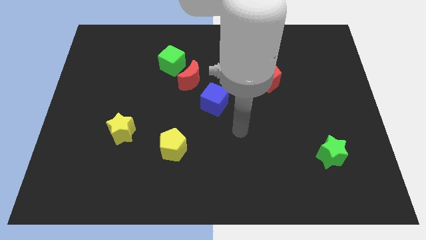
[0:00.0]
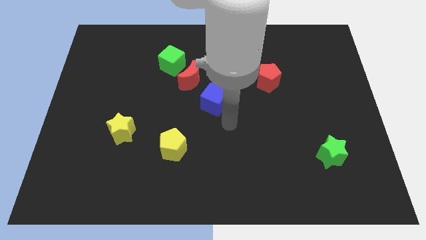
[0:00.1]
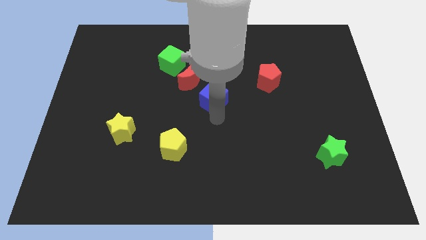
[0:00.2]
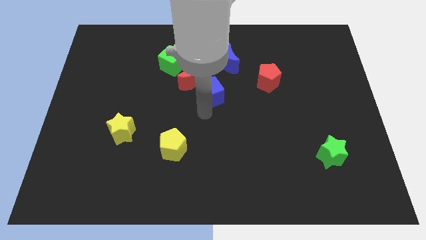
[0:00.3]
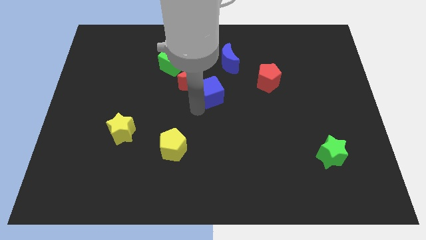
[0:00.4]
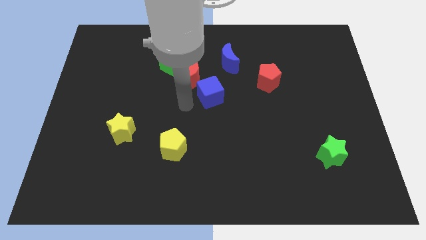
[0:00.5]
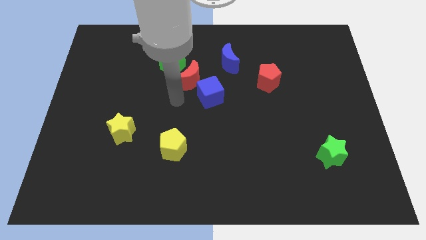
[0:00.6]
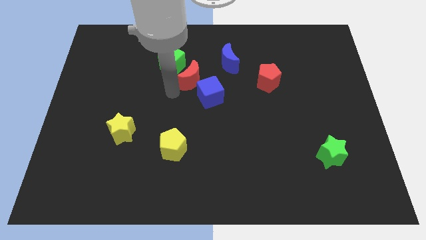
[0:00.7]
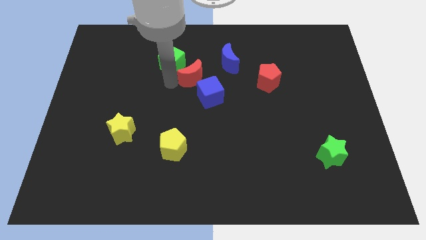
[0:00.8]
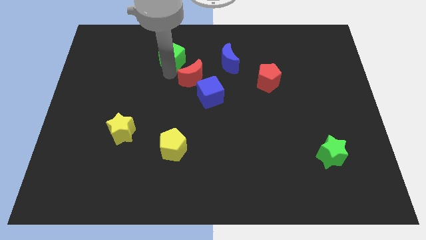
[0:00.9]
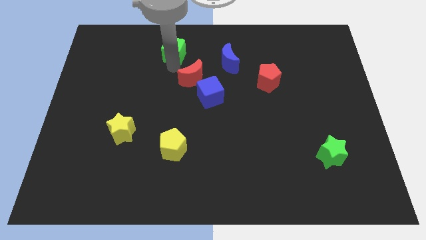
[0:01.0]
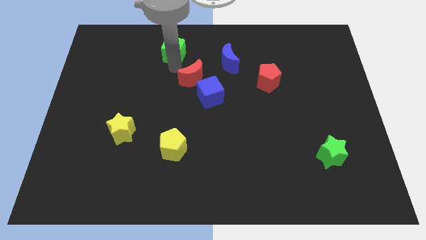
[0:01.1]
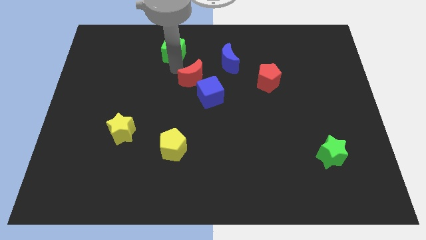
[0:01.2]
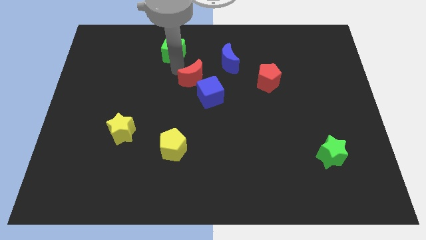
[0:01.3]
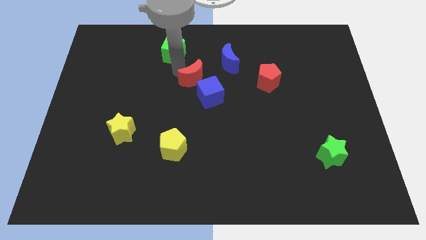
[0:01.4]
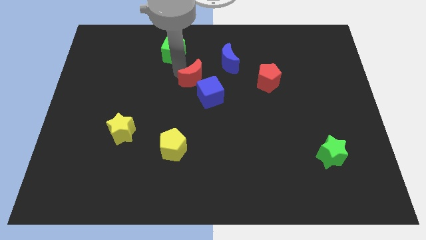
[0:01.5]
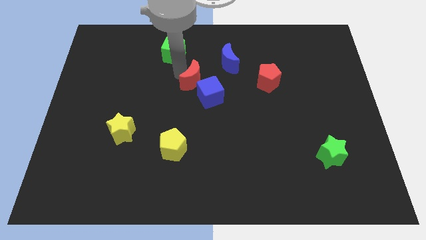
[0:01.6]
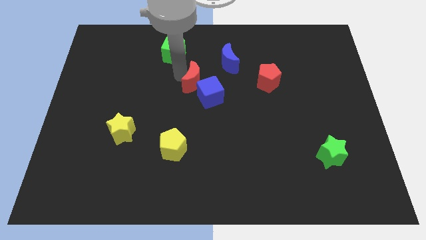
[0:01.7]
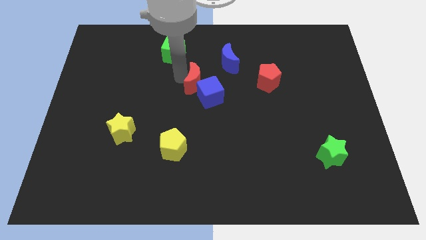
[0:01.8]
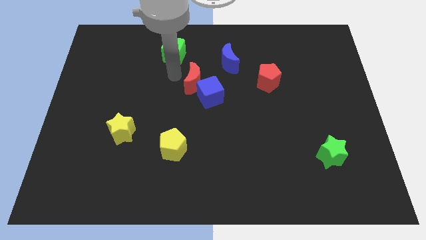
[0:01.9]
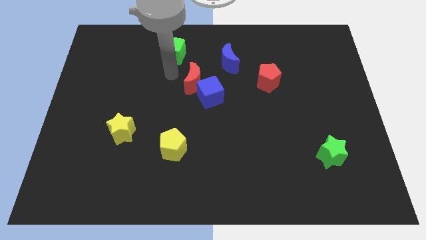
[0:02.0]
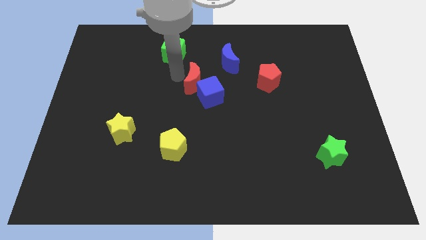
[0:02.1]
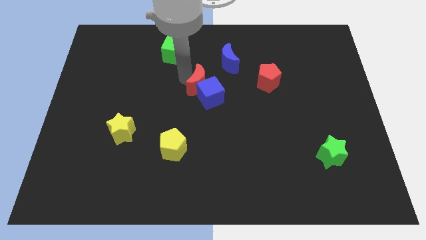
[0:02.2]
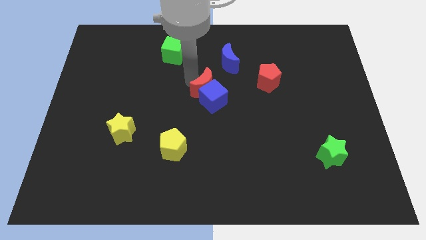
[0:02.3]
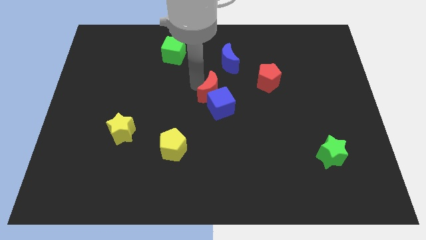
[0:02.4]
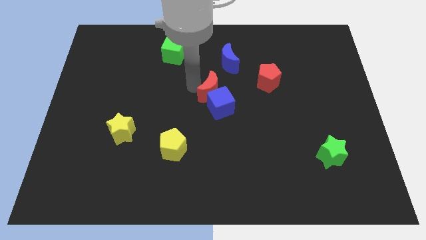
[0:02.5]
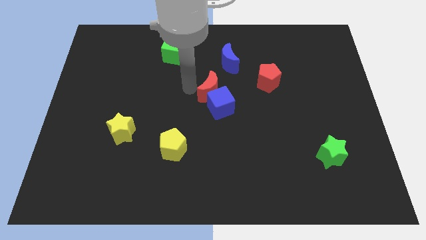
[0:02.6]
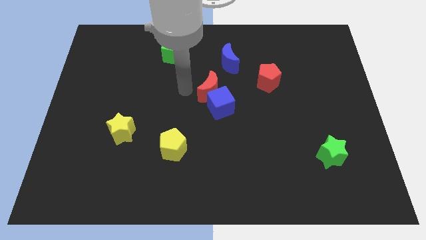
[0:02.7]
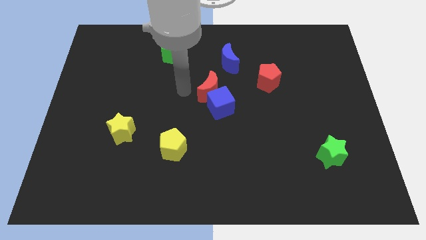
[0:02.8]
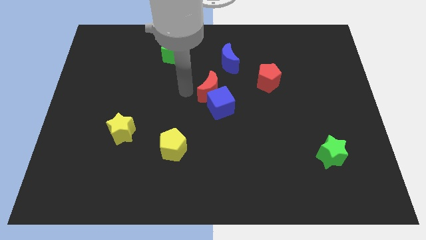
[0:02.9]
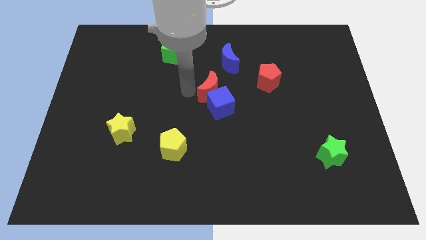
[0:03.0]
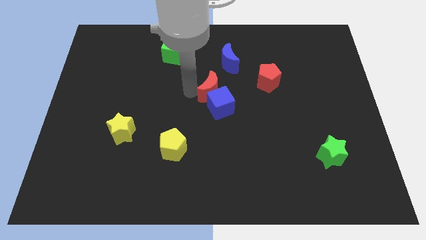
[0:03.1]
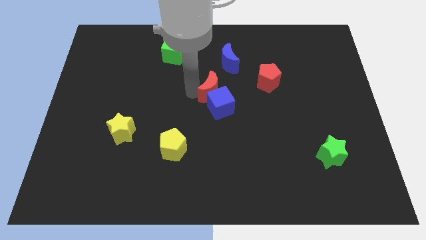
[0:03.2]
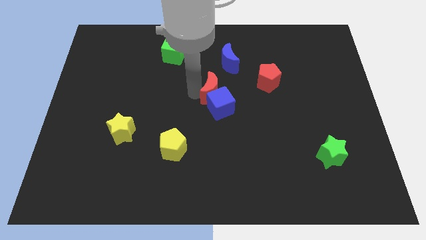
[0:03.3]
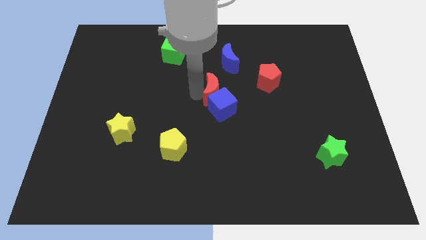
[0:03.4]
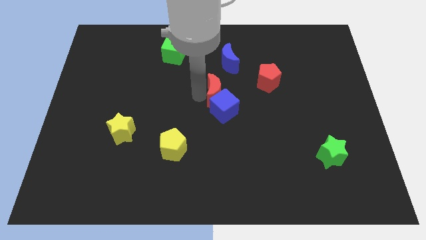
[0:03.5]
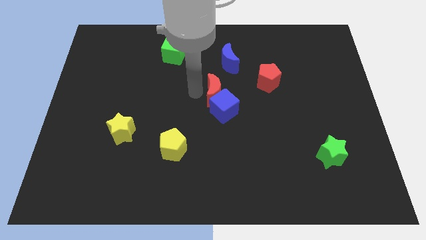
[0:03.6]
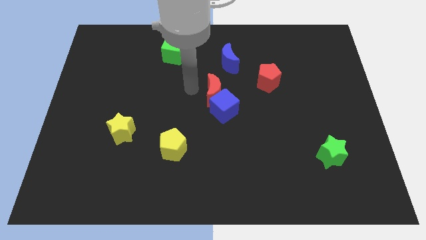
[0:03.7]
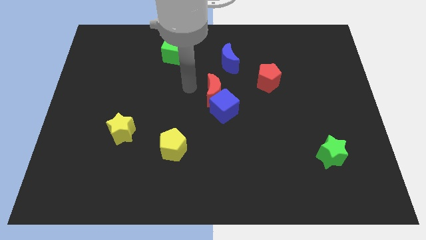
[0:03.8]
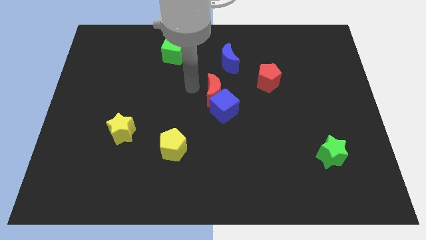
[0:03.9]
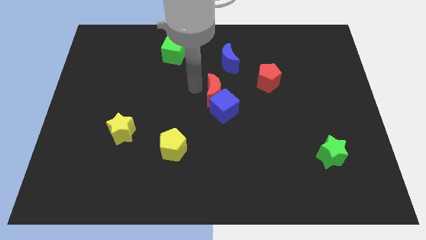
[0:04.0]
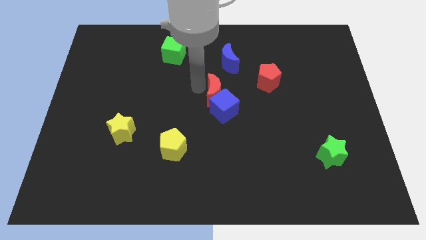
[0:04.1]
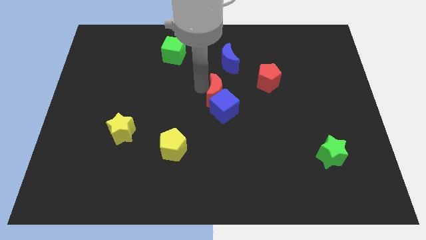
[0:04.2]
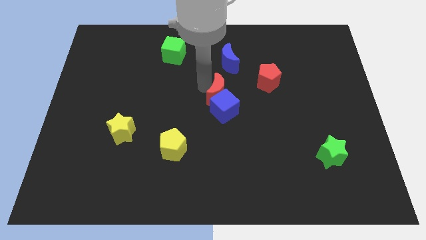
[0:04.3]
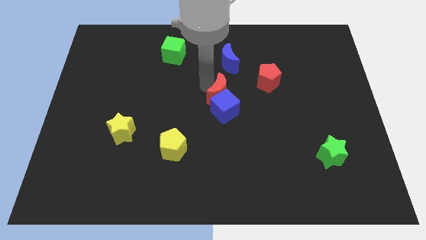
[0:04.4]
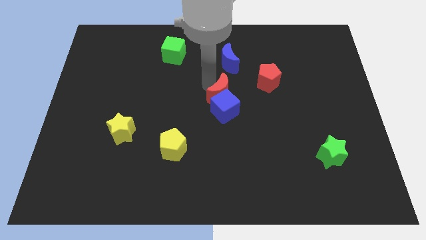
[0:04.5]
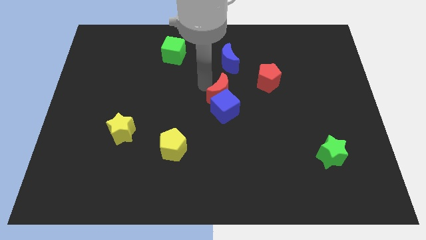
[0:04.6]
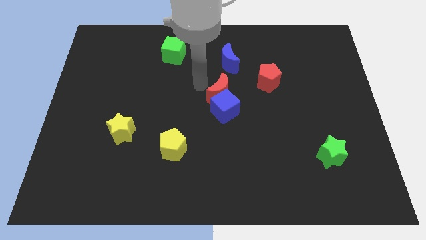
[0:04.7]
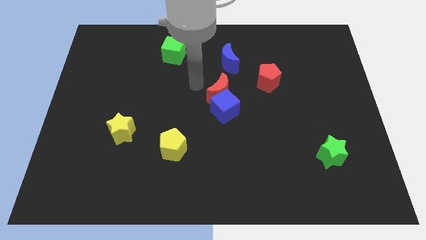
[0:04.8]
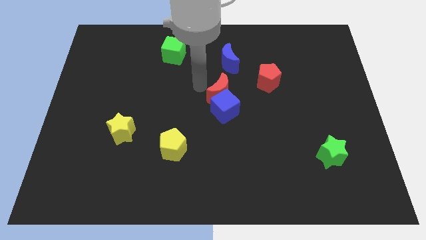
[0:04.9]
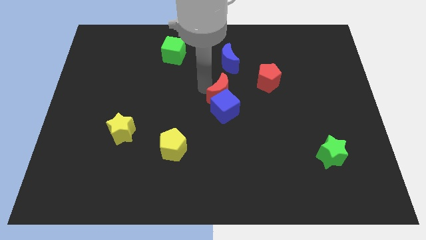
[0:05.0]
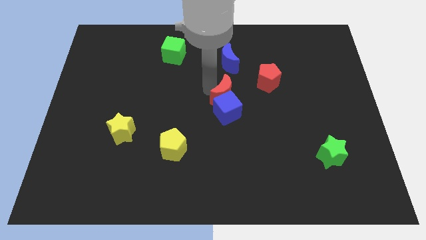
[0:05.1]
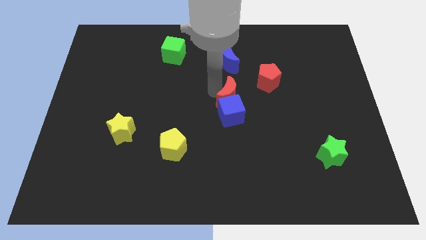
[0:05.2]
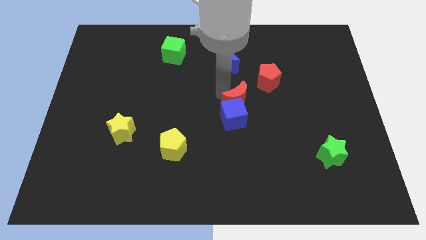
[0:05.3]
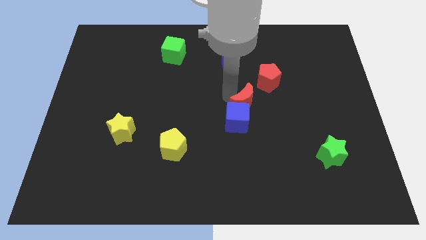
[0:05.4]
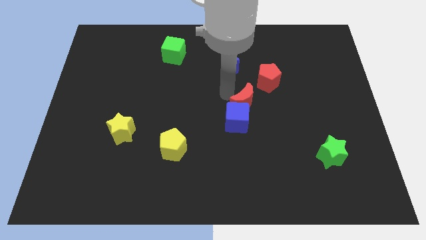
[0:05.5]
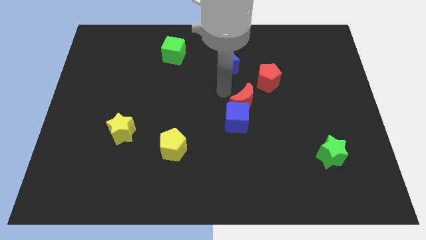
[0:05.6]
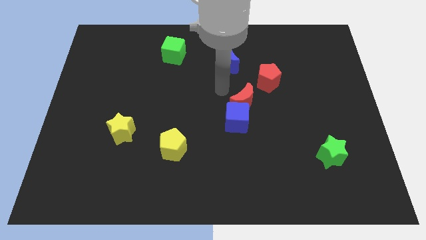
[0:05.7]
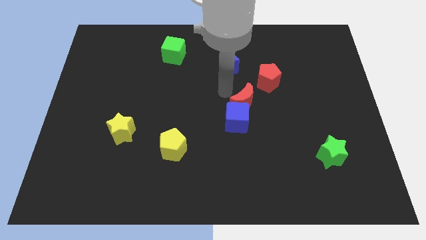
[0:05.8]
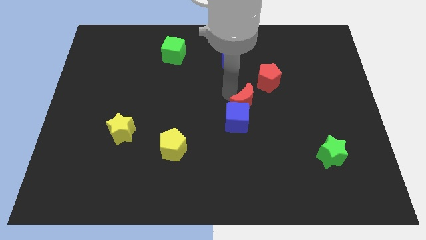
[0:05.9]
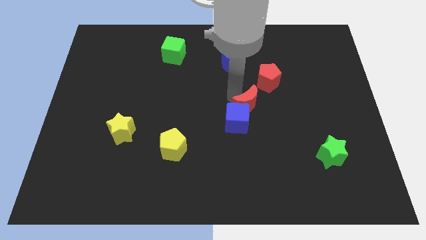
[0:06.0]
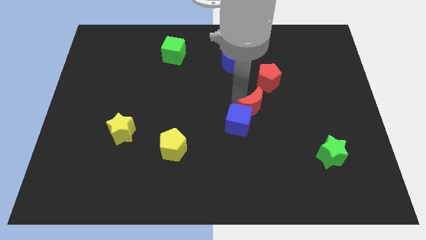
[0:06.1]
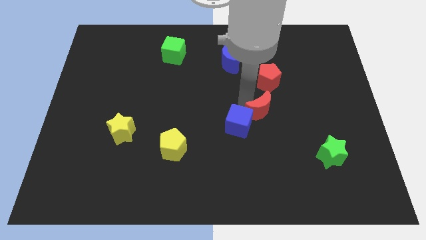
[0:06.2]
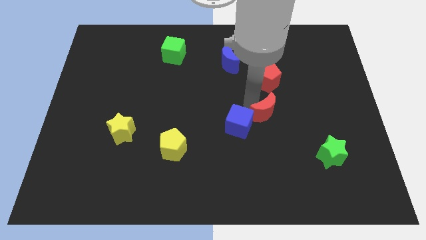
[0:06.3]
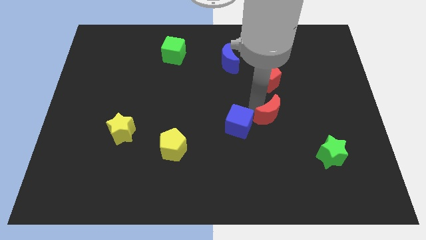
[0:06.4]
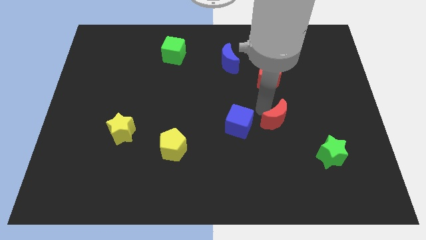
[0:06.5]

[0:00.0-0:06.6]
push the red moon down and to the right

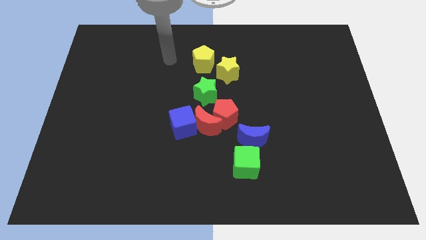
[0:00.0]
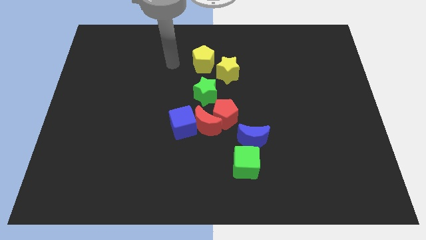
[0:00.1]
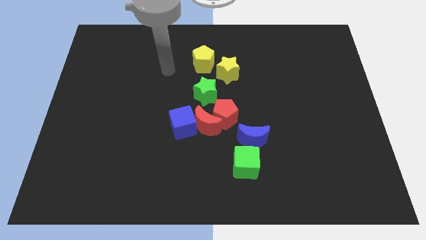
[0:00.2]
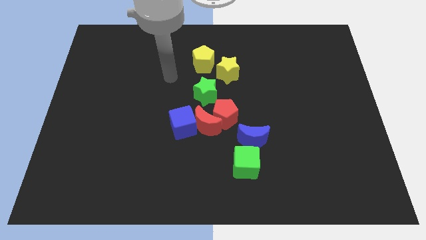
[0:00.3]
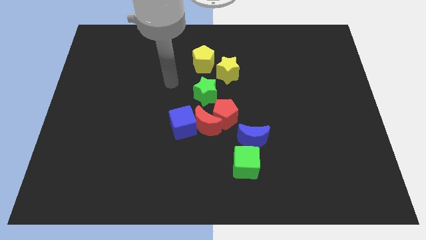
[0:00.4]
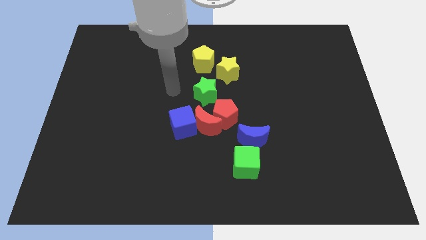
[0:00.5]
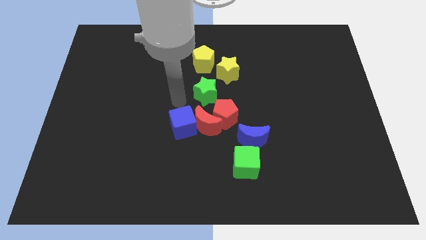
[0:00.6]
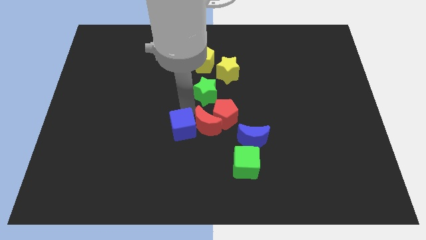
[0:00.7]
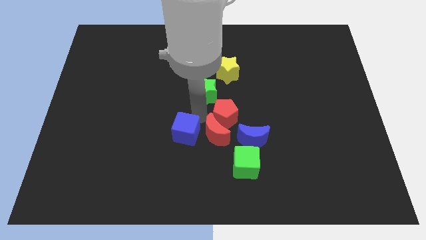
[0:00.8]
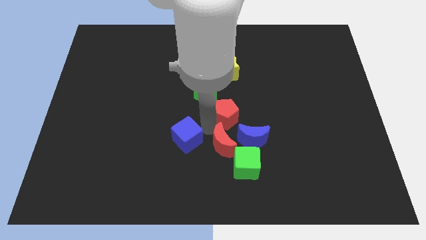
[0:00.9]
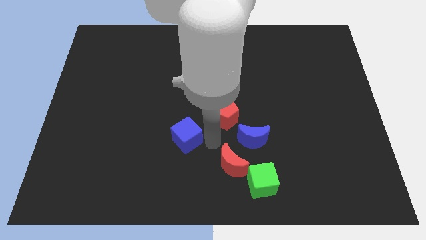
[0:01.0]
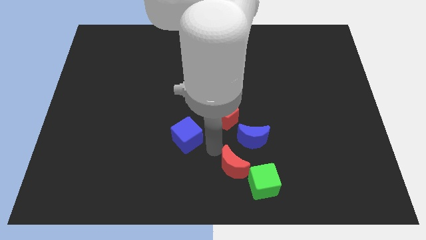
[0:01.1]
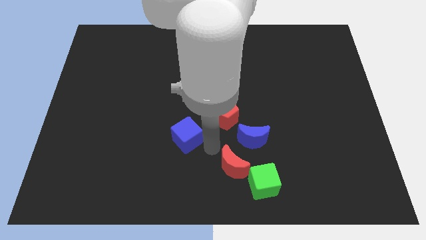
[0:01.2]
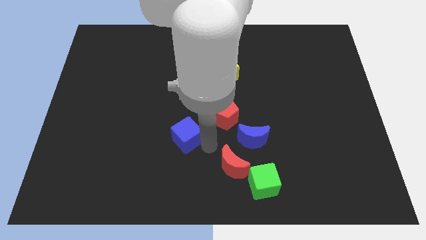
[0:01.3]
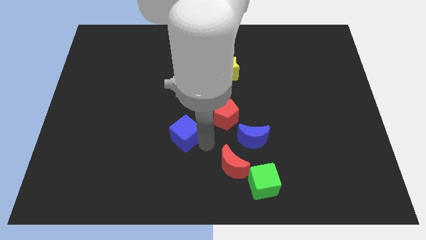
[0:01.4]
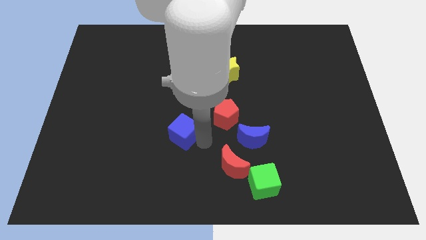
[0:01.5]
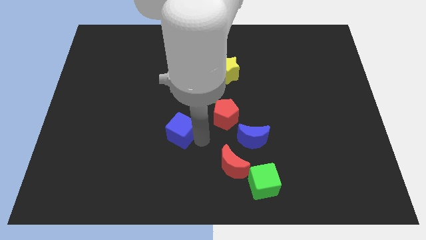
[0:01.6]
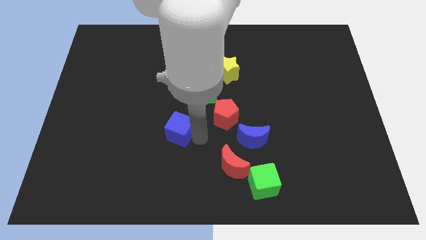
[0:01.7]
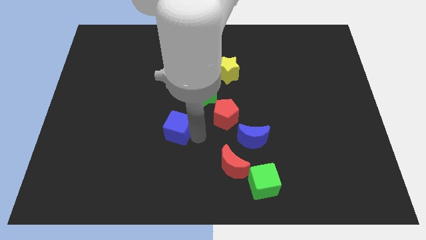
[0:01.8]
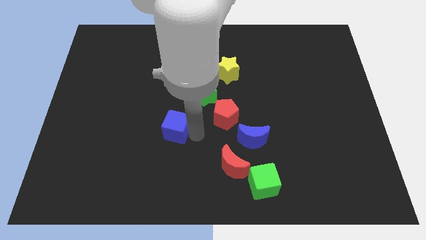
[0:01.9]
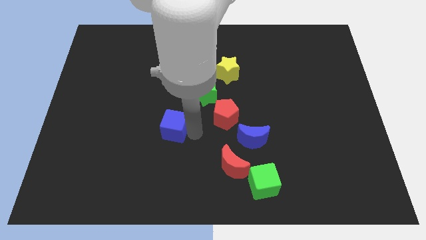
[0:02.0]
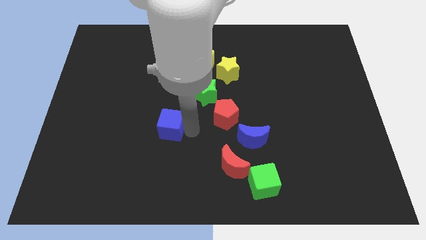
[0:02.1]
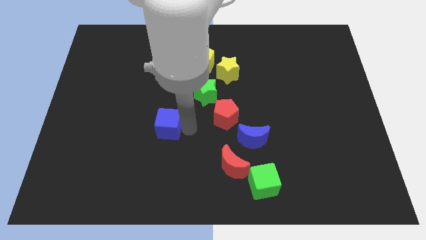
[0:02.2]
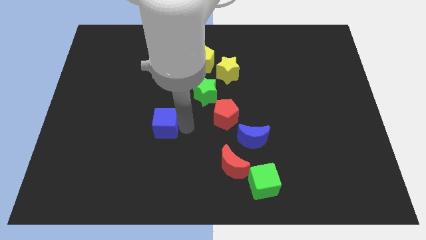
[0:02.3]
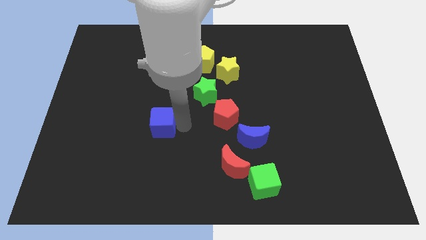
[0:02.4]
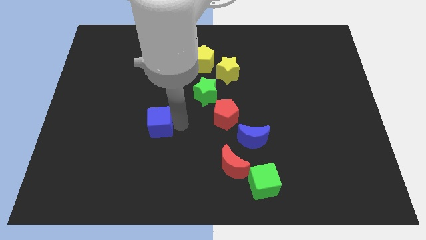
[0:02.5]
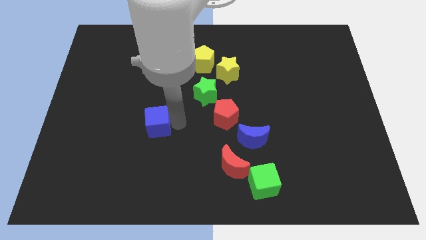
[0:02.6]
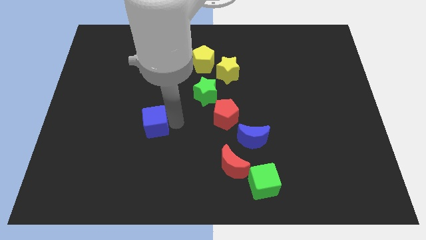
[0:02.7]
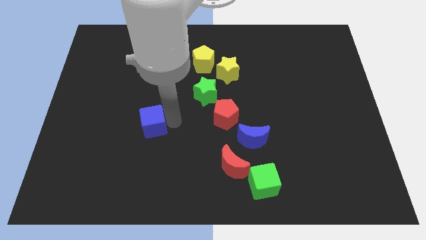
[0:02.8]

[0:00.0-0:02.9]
slide the blue cube left somewhat
